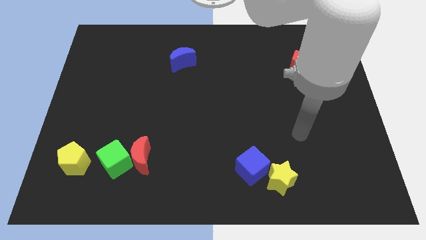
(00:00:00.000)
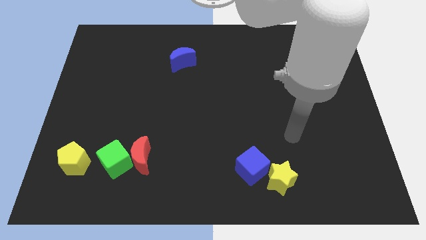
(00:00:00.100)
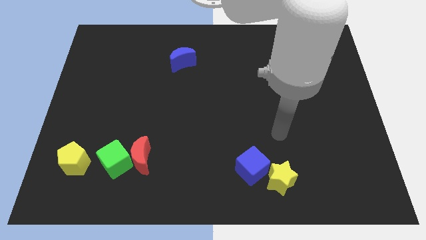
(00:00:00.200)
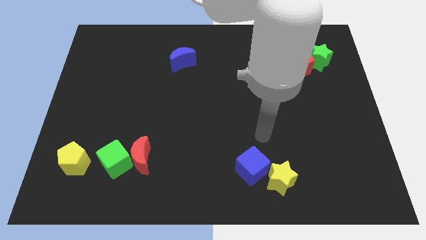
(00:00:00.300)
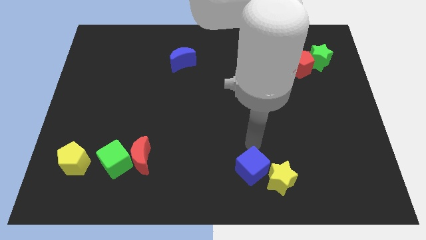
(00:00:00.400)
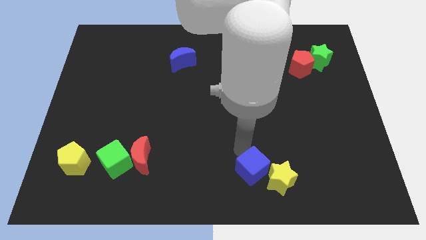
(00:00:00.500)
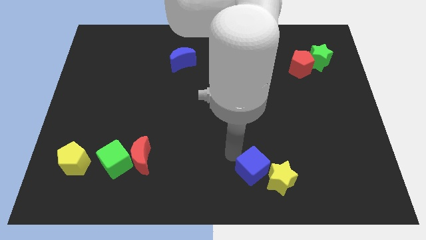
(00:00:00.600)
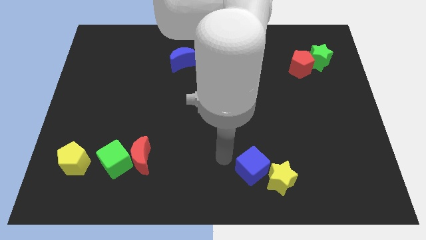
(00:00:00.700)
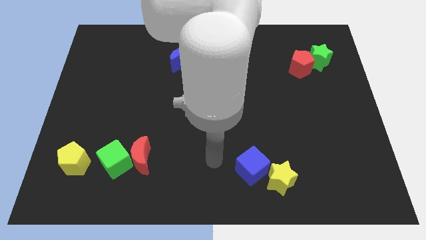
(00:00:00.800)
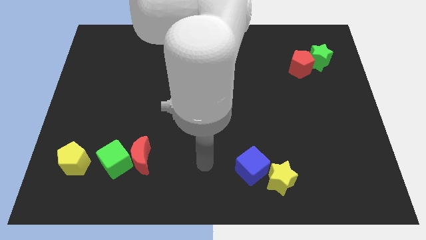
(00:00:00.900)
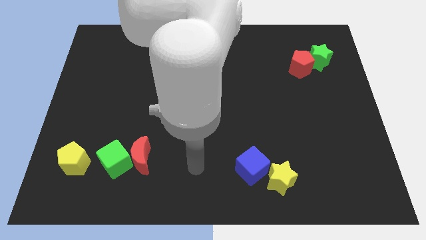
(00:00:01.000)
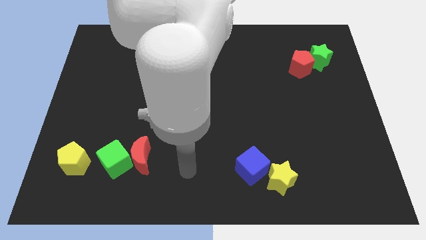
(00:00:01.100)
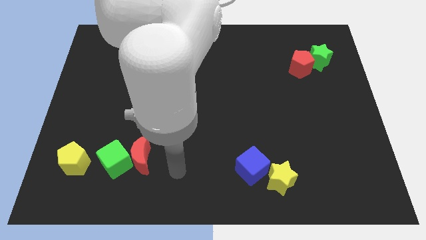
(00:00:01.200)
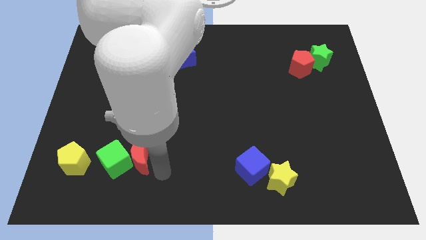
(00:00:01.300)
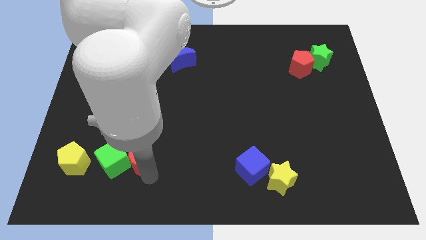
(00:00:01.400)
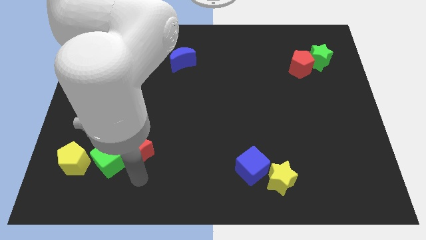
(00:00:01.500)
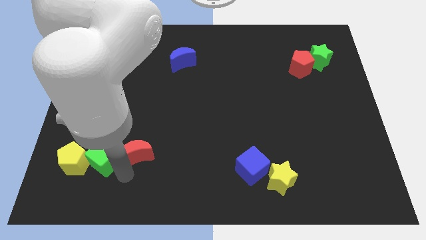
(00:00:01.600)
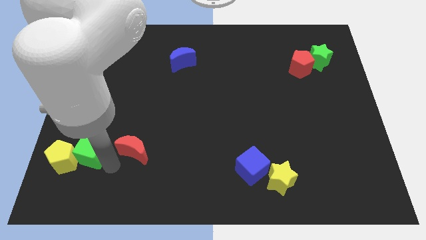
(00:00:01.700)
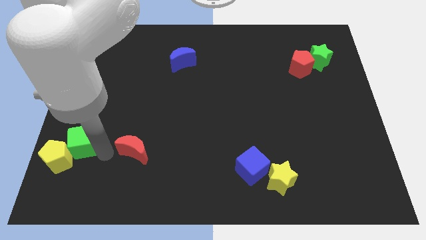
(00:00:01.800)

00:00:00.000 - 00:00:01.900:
separate the red moon from the green cube

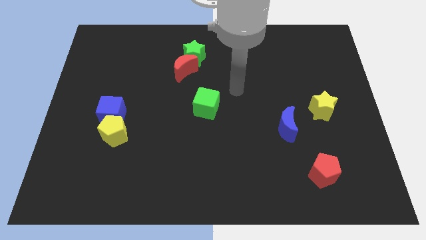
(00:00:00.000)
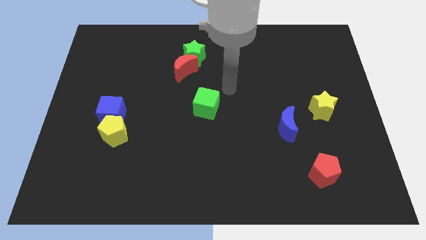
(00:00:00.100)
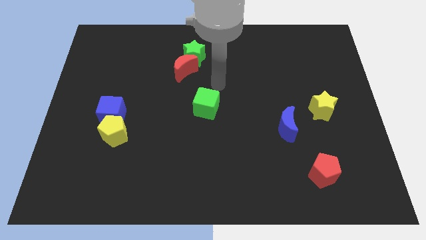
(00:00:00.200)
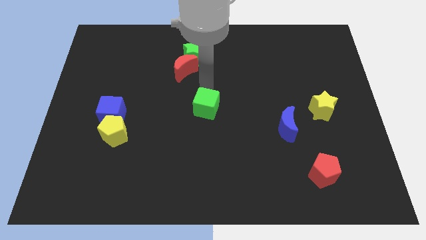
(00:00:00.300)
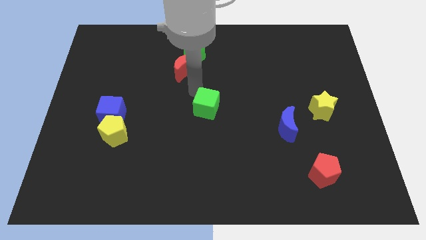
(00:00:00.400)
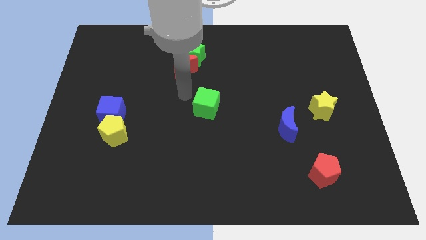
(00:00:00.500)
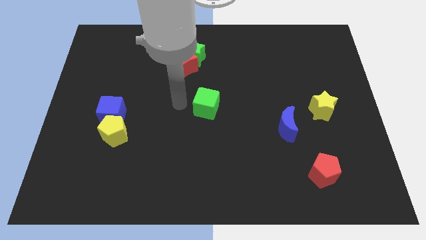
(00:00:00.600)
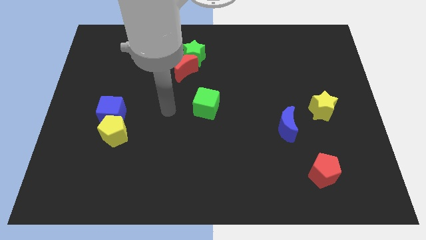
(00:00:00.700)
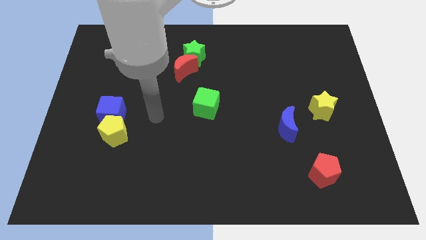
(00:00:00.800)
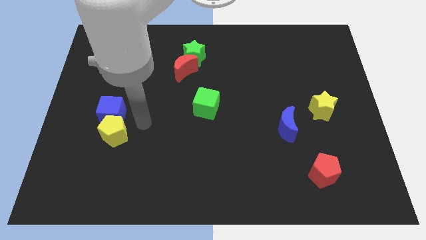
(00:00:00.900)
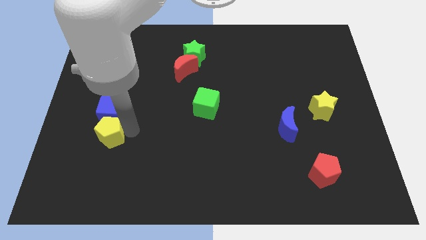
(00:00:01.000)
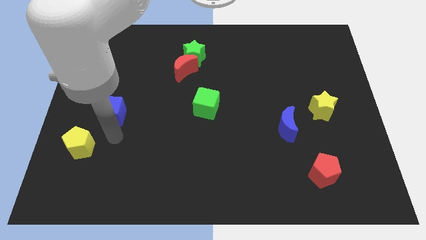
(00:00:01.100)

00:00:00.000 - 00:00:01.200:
move the blue cube away from the yellow pentagon

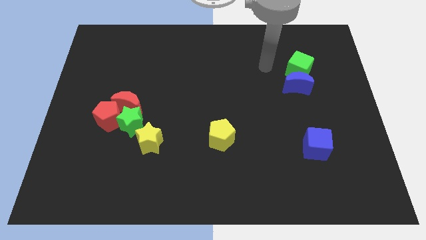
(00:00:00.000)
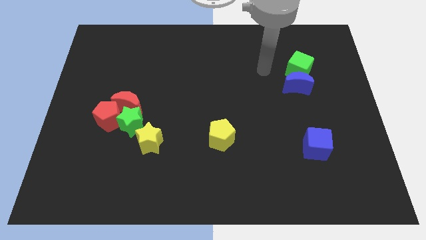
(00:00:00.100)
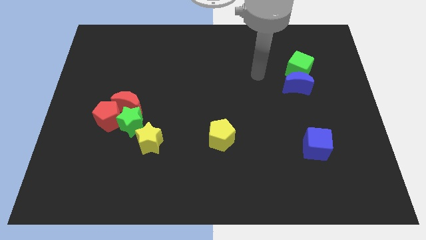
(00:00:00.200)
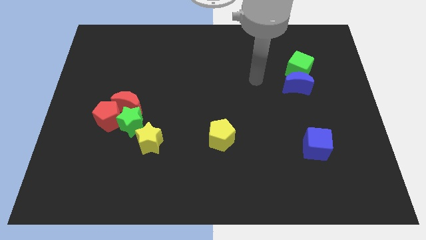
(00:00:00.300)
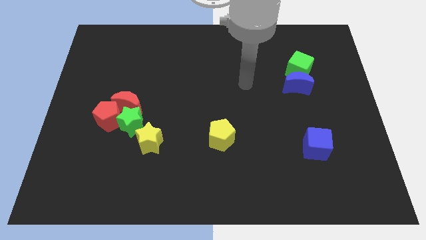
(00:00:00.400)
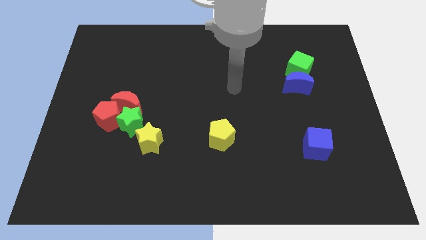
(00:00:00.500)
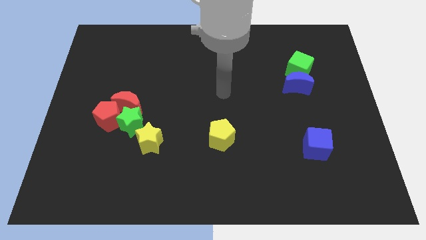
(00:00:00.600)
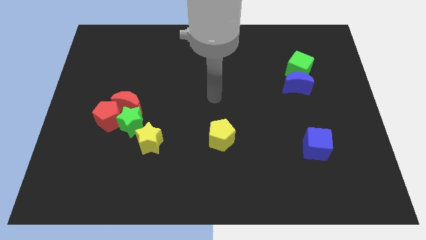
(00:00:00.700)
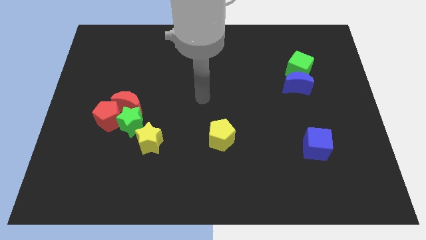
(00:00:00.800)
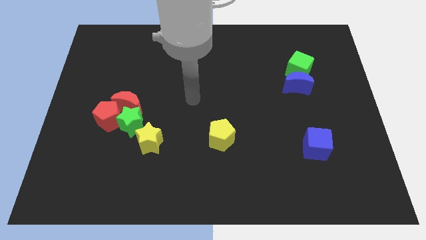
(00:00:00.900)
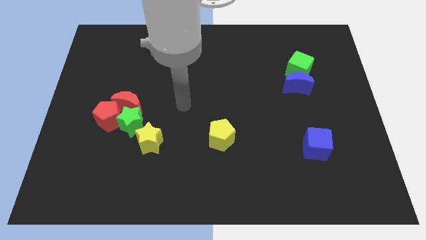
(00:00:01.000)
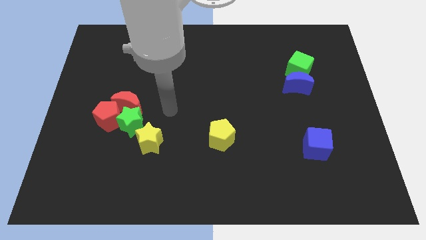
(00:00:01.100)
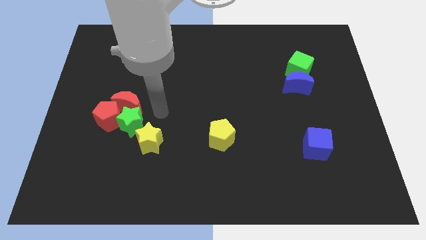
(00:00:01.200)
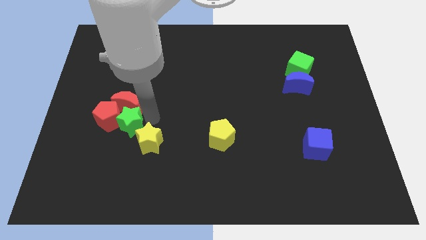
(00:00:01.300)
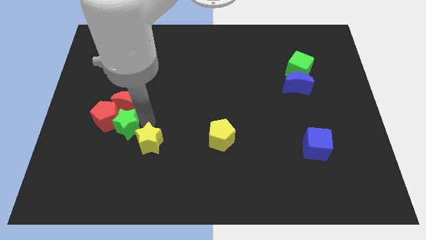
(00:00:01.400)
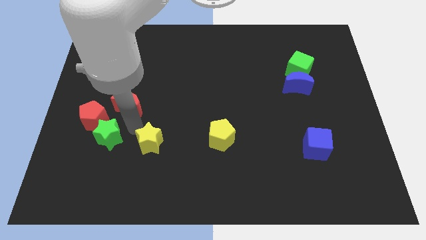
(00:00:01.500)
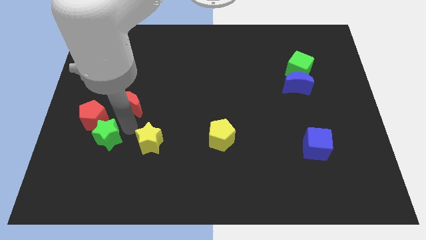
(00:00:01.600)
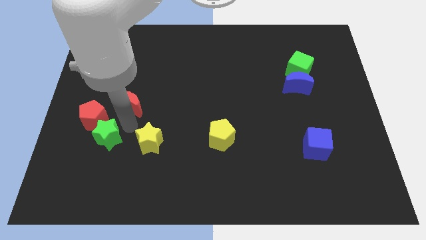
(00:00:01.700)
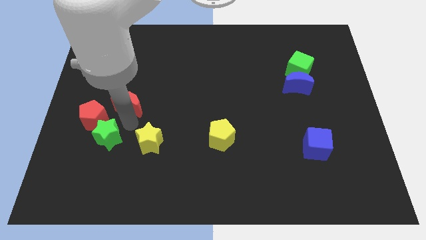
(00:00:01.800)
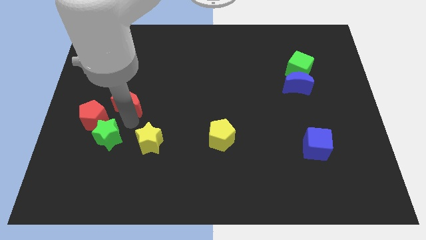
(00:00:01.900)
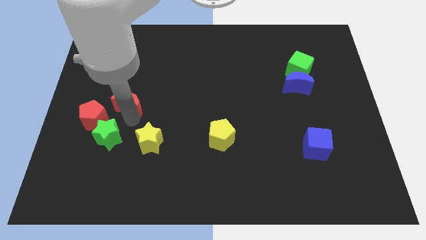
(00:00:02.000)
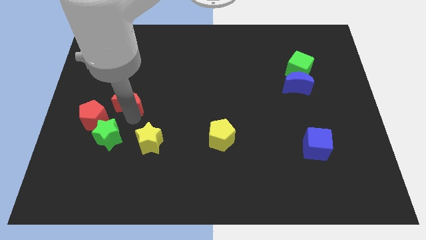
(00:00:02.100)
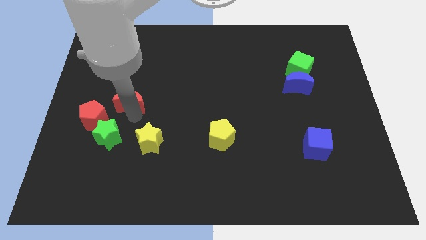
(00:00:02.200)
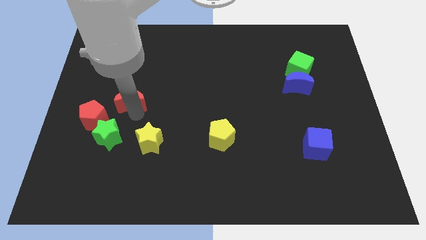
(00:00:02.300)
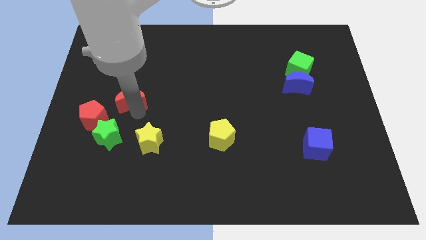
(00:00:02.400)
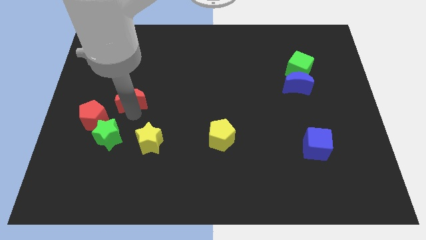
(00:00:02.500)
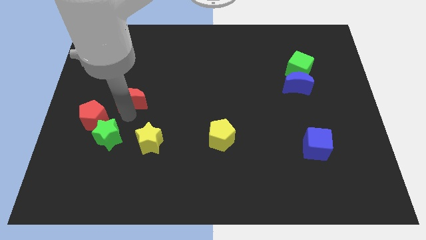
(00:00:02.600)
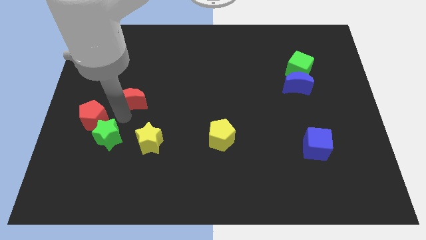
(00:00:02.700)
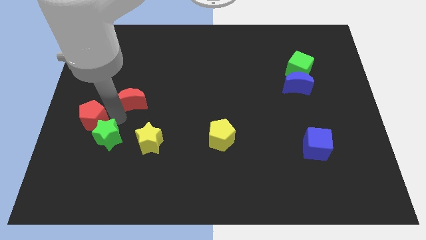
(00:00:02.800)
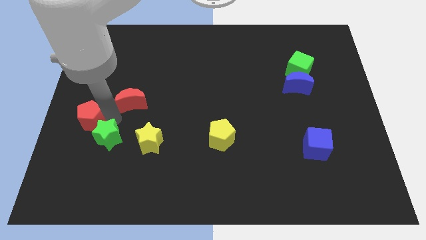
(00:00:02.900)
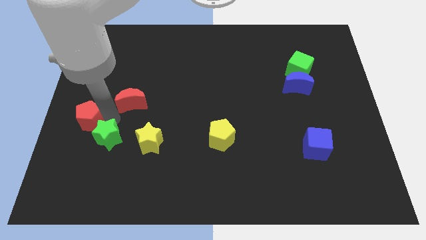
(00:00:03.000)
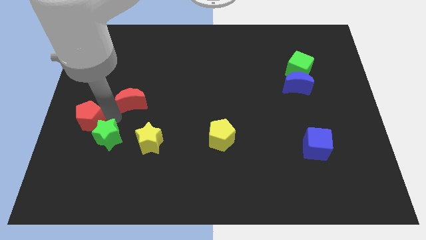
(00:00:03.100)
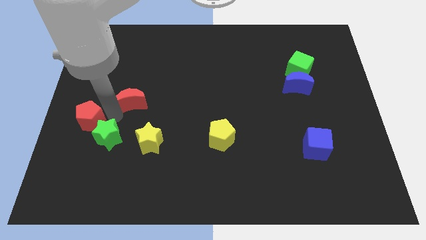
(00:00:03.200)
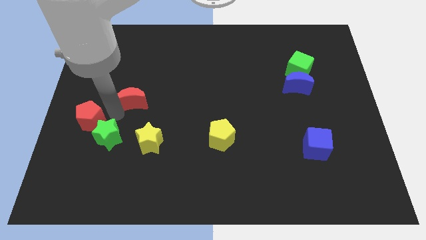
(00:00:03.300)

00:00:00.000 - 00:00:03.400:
move the red moon away from the green star and red pentagon

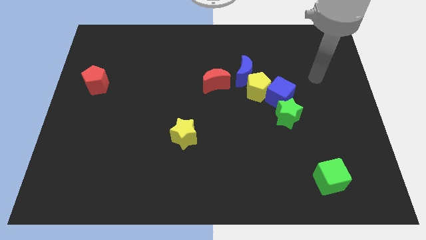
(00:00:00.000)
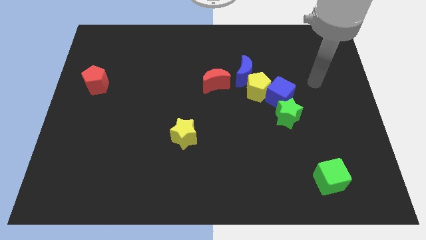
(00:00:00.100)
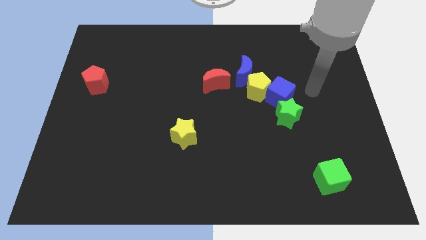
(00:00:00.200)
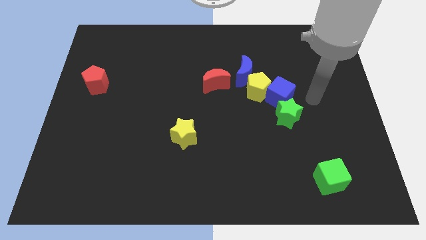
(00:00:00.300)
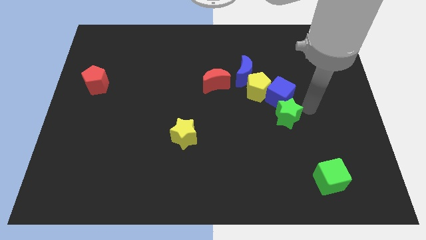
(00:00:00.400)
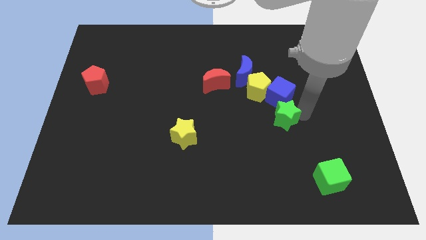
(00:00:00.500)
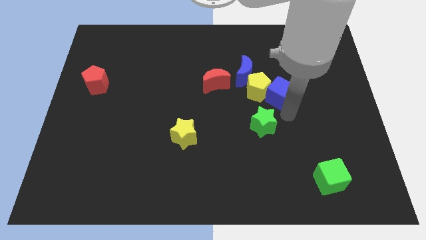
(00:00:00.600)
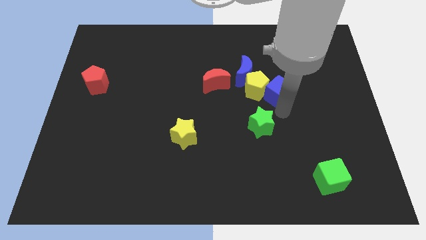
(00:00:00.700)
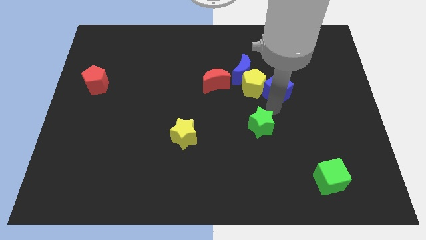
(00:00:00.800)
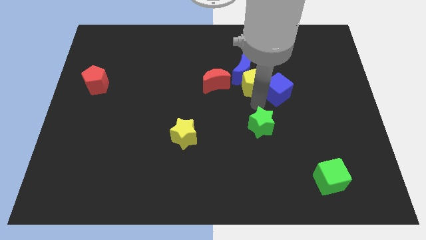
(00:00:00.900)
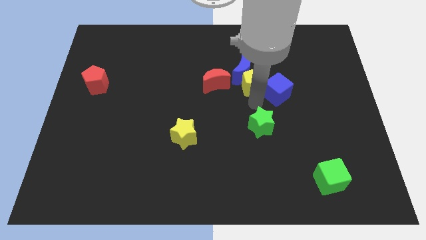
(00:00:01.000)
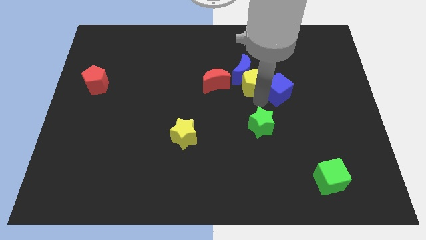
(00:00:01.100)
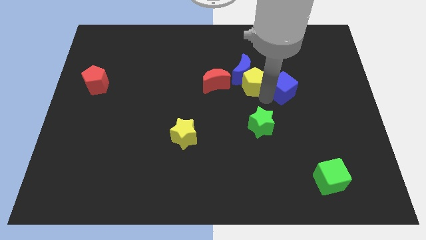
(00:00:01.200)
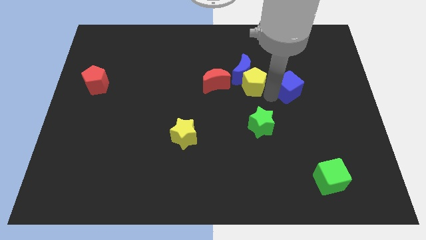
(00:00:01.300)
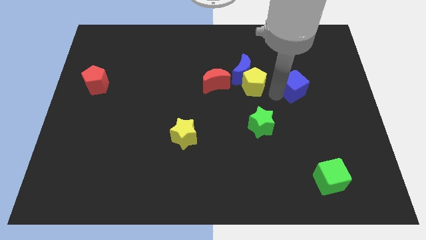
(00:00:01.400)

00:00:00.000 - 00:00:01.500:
pull the blue cube apart from the yellow pentagon and green star

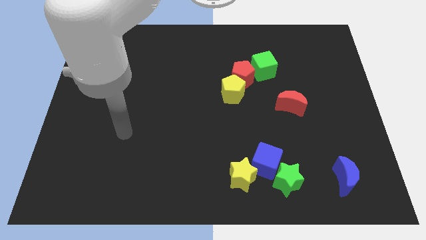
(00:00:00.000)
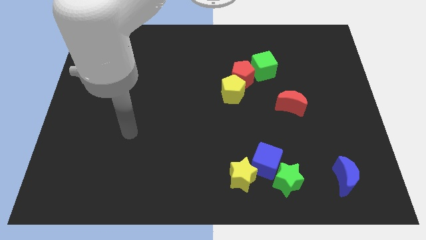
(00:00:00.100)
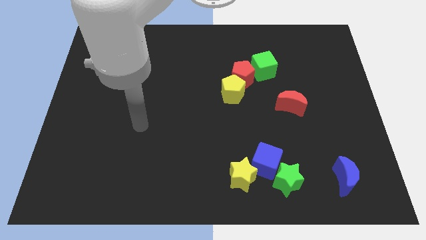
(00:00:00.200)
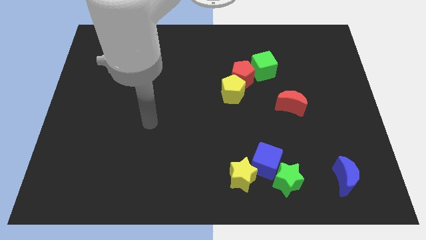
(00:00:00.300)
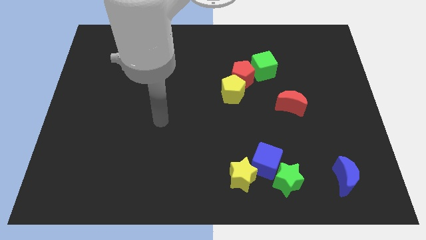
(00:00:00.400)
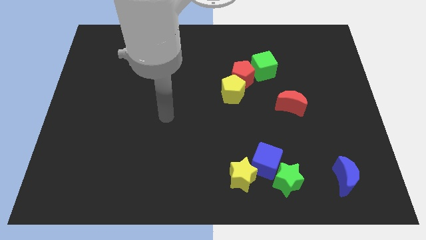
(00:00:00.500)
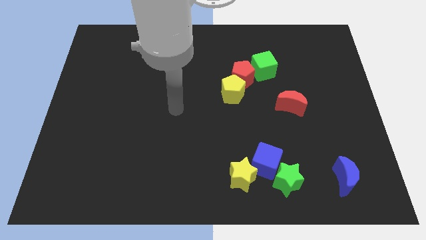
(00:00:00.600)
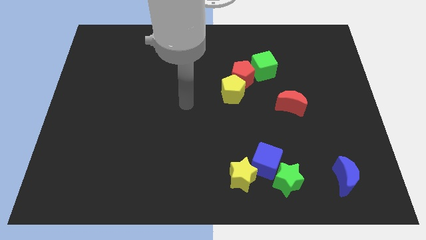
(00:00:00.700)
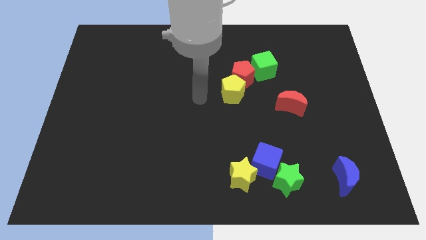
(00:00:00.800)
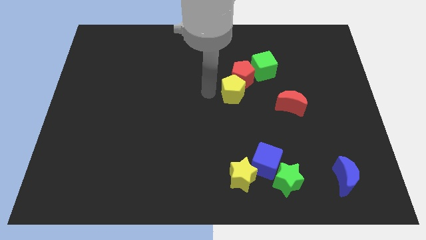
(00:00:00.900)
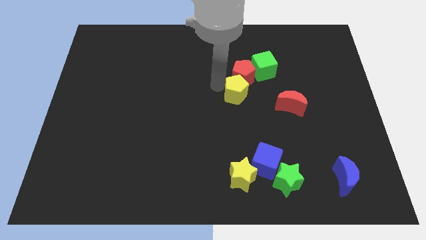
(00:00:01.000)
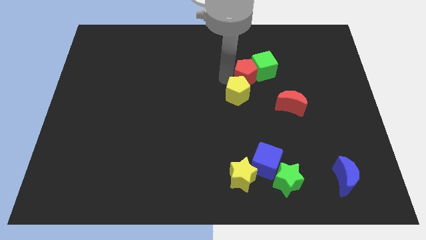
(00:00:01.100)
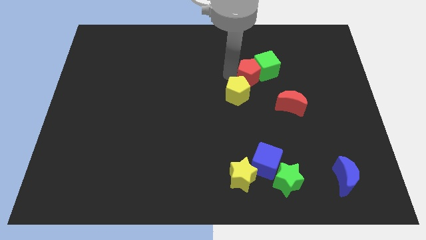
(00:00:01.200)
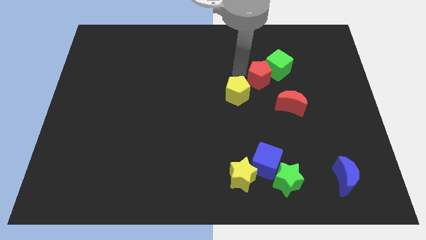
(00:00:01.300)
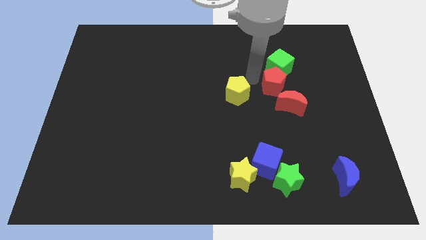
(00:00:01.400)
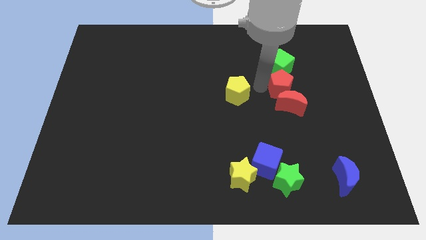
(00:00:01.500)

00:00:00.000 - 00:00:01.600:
move the yellow pentagon away from the red pentagon
